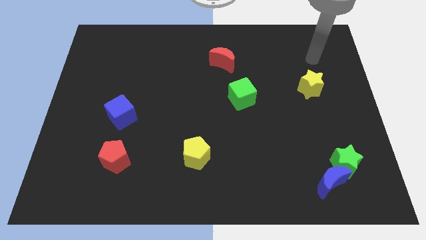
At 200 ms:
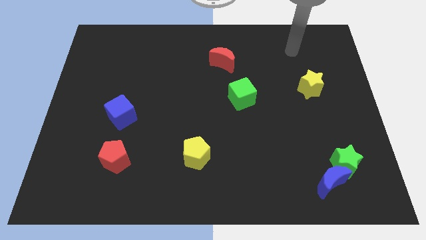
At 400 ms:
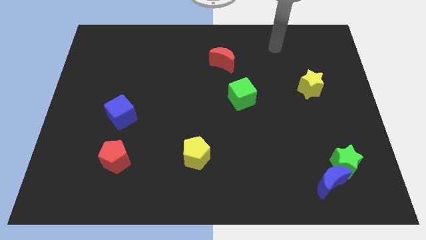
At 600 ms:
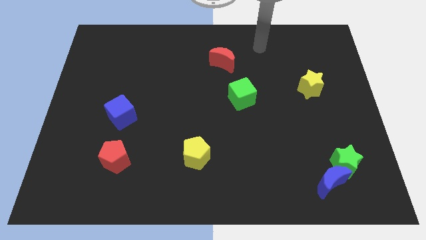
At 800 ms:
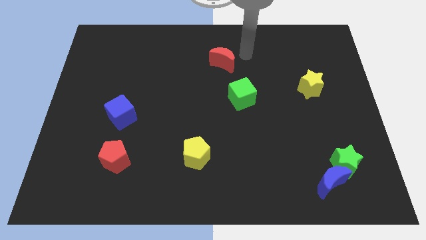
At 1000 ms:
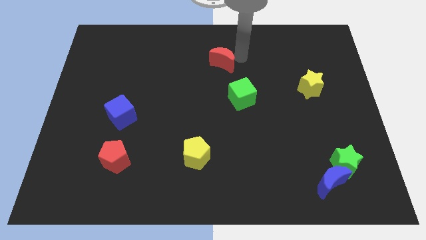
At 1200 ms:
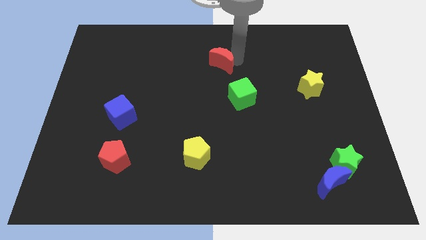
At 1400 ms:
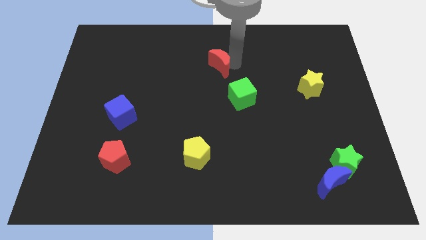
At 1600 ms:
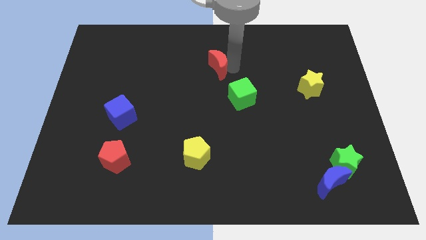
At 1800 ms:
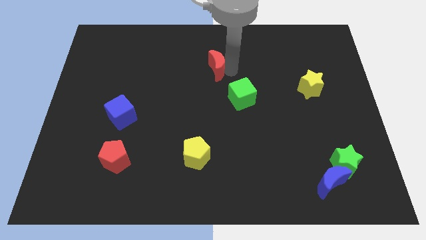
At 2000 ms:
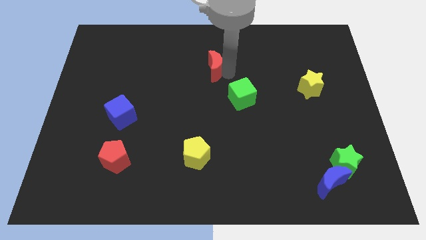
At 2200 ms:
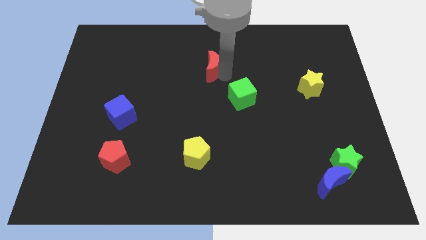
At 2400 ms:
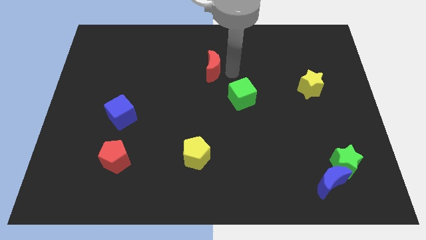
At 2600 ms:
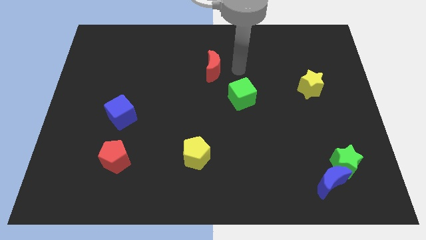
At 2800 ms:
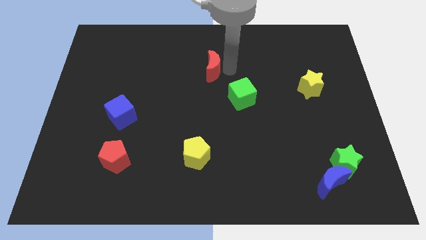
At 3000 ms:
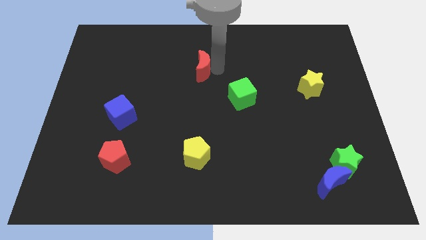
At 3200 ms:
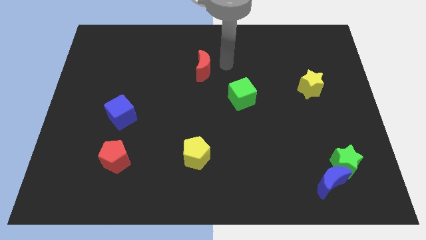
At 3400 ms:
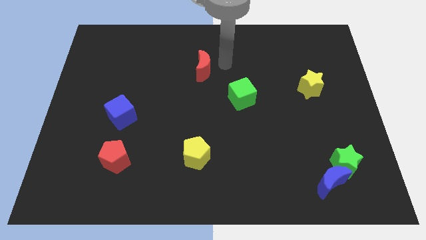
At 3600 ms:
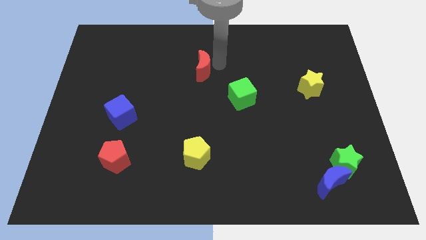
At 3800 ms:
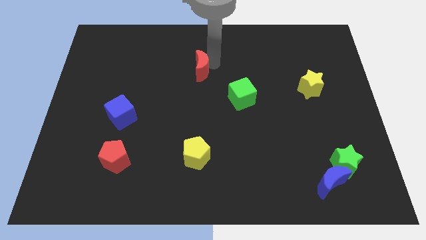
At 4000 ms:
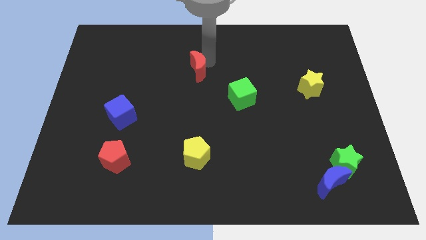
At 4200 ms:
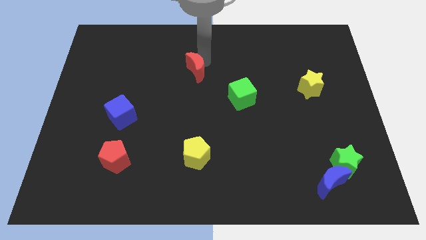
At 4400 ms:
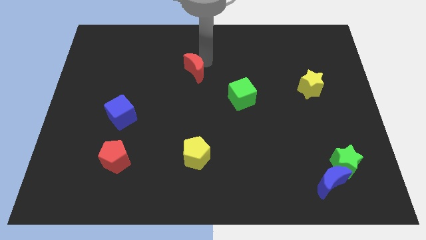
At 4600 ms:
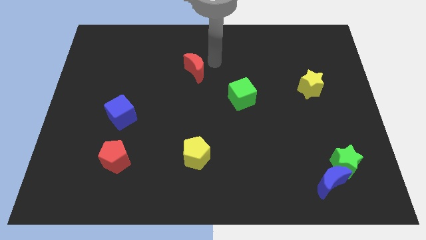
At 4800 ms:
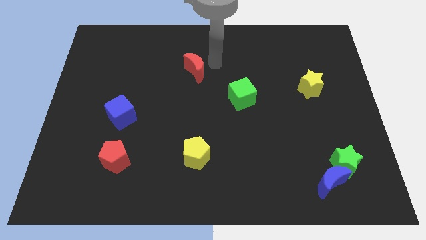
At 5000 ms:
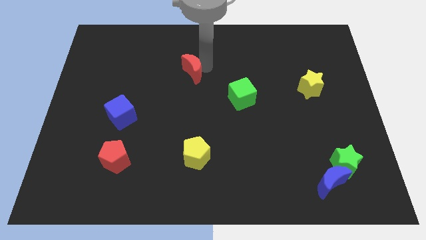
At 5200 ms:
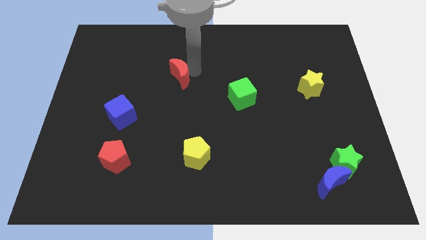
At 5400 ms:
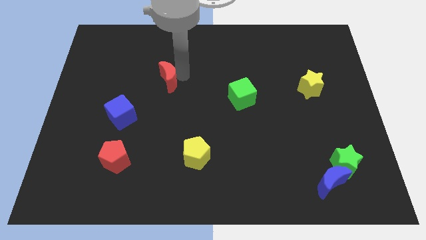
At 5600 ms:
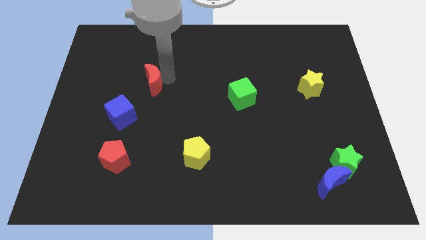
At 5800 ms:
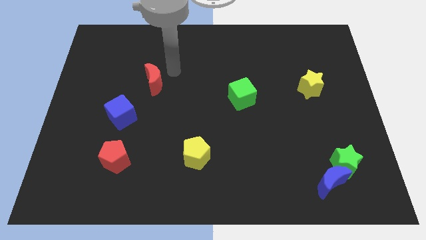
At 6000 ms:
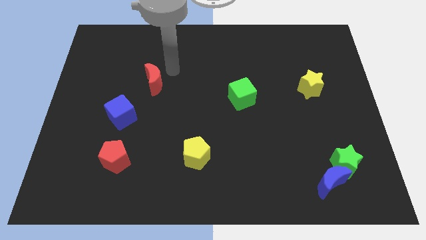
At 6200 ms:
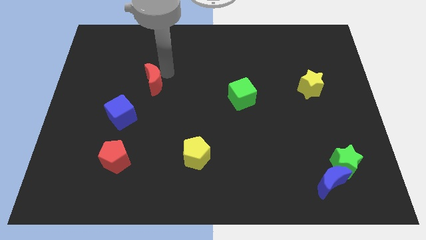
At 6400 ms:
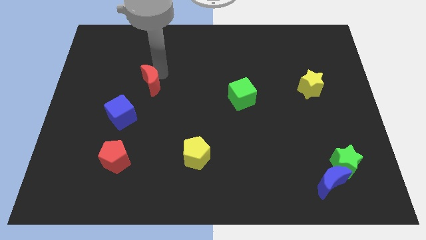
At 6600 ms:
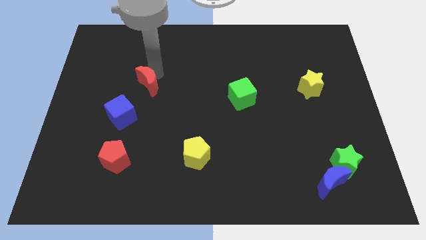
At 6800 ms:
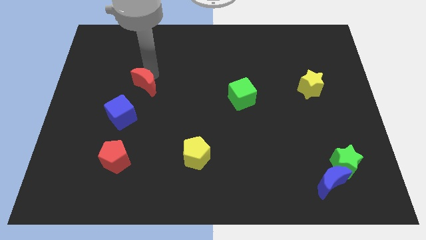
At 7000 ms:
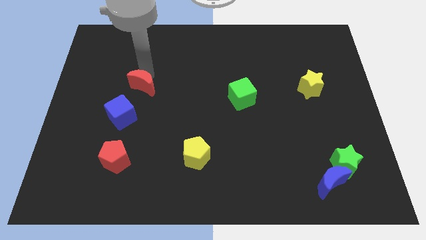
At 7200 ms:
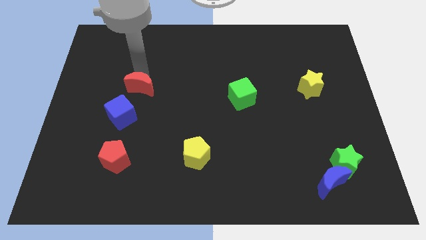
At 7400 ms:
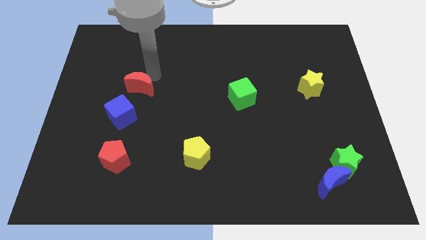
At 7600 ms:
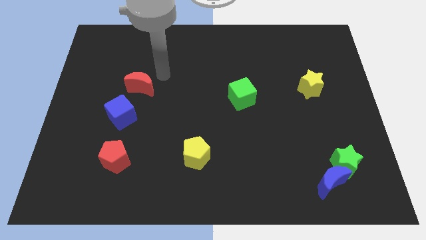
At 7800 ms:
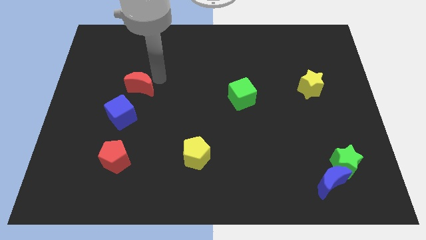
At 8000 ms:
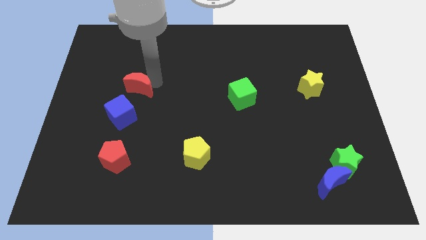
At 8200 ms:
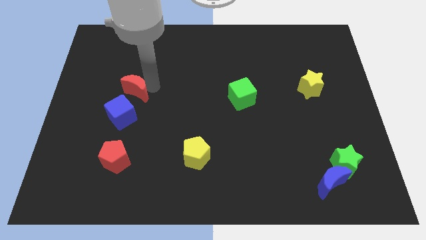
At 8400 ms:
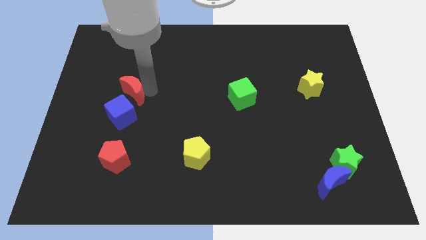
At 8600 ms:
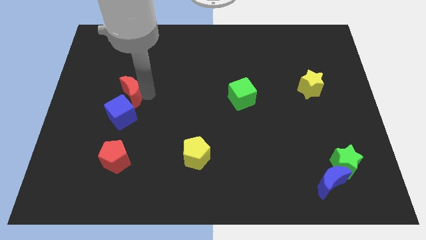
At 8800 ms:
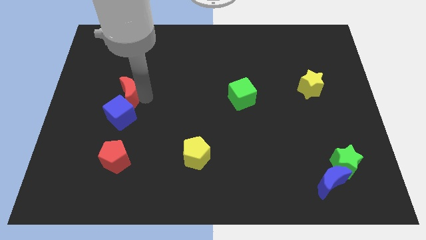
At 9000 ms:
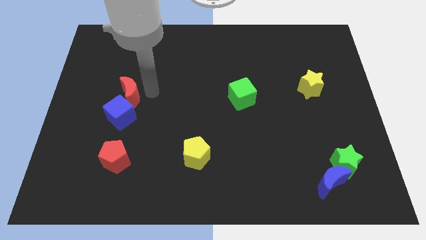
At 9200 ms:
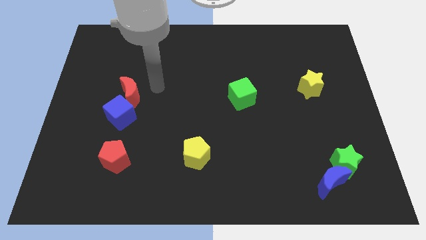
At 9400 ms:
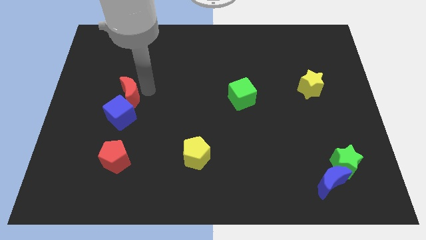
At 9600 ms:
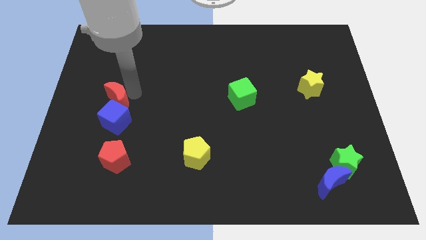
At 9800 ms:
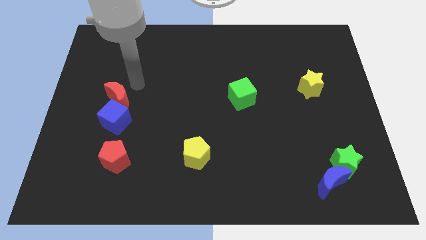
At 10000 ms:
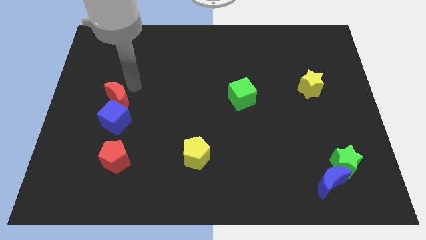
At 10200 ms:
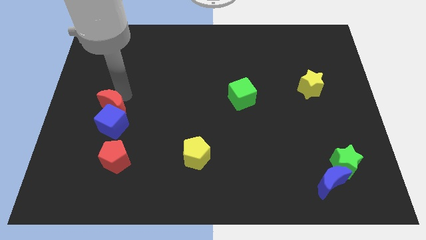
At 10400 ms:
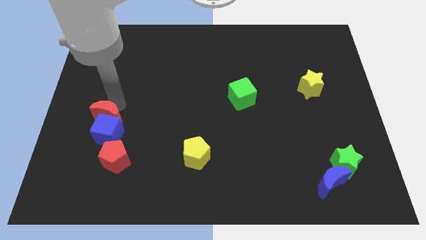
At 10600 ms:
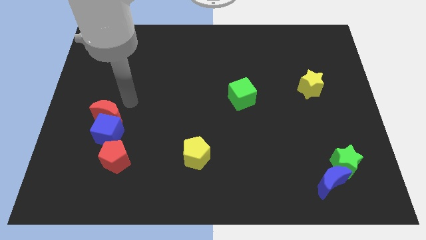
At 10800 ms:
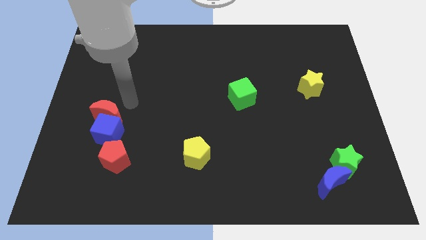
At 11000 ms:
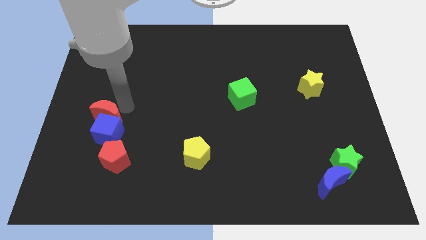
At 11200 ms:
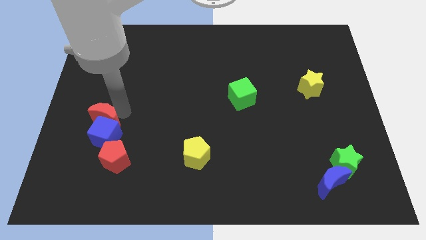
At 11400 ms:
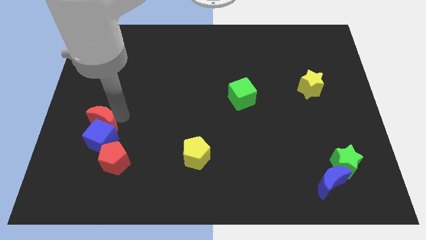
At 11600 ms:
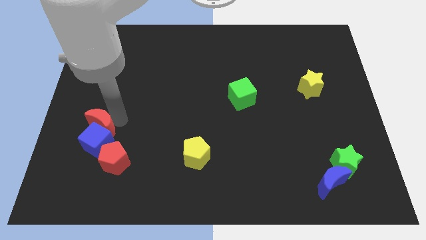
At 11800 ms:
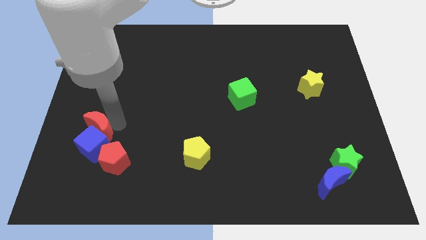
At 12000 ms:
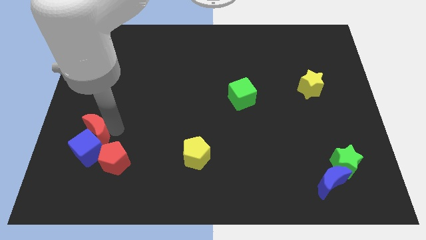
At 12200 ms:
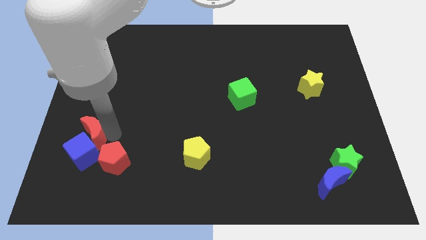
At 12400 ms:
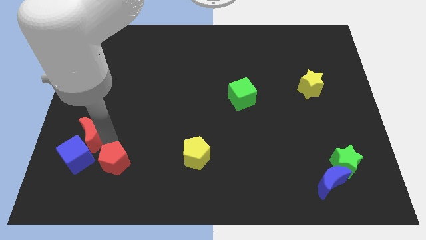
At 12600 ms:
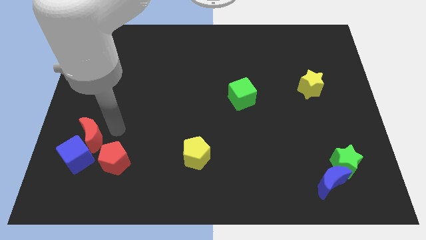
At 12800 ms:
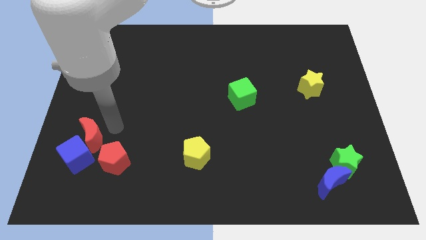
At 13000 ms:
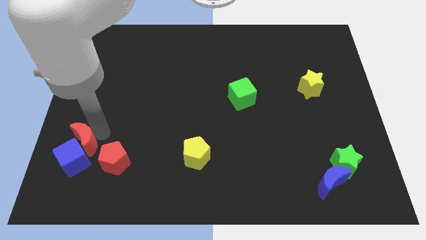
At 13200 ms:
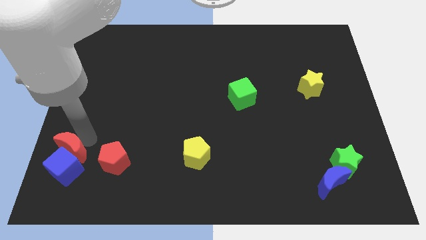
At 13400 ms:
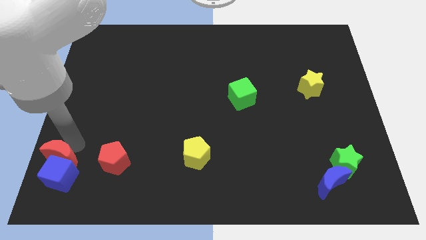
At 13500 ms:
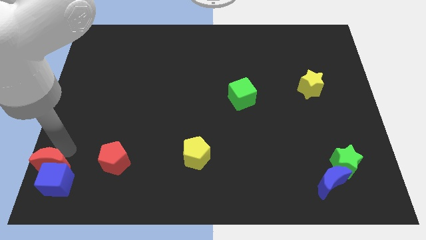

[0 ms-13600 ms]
push the red moon to the bottom left
